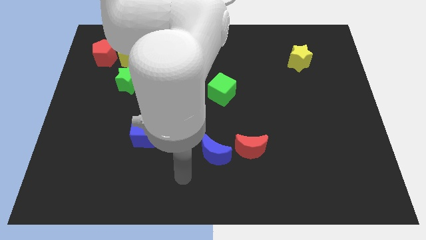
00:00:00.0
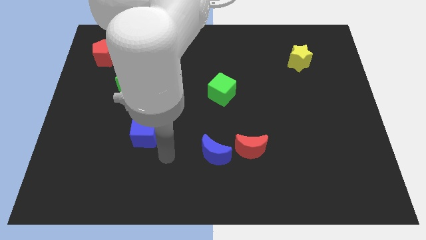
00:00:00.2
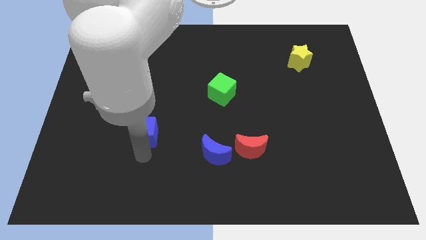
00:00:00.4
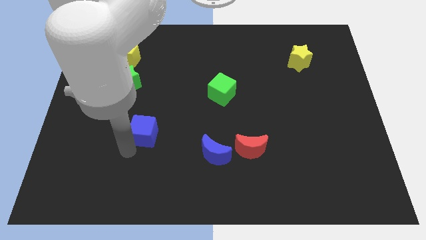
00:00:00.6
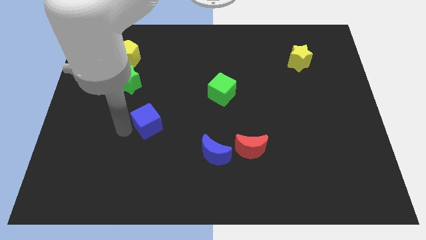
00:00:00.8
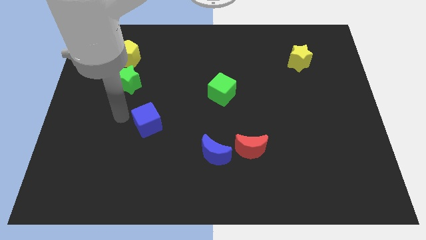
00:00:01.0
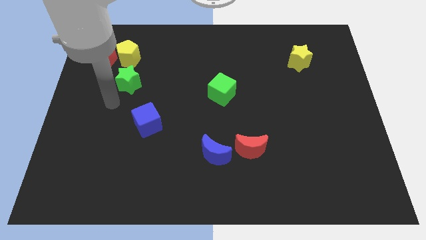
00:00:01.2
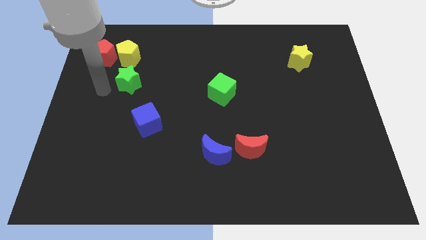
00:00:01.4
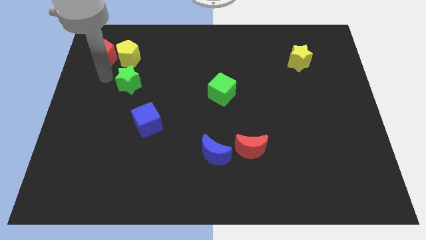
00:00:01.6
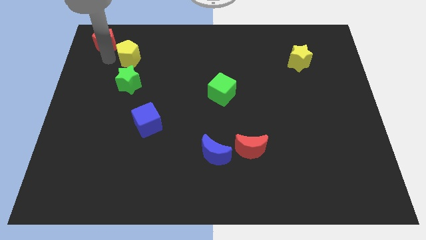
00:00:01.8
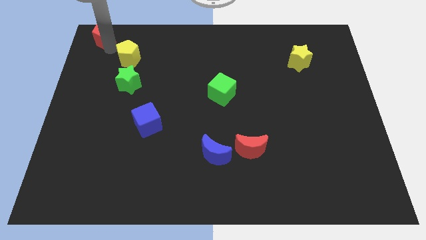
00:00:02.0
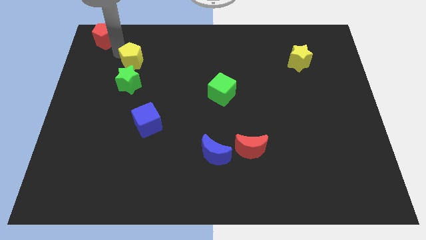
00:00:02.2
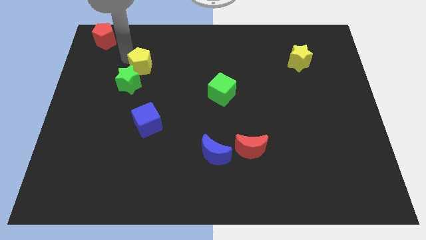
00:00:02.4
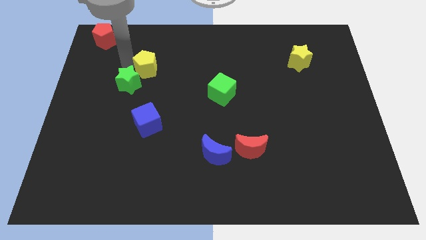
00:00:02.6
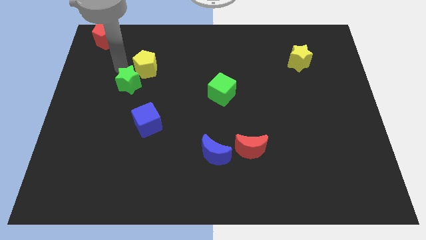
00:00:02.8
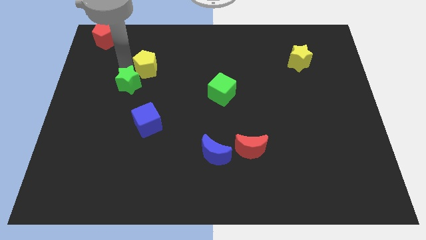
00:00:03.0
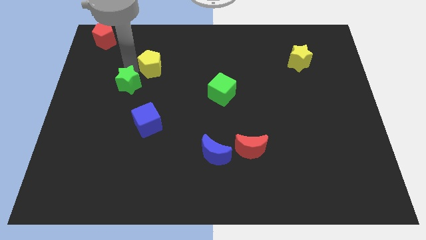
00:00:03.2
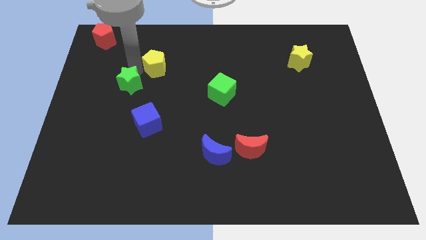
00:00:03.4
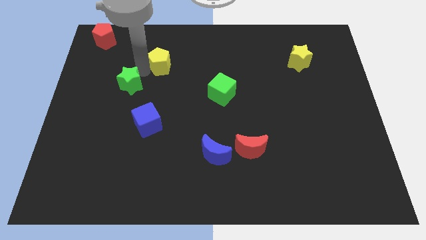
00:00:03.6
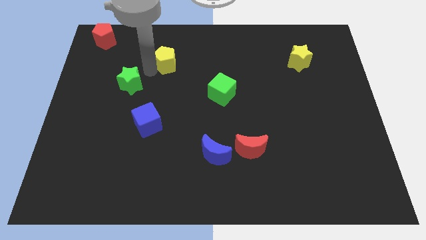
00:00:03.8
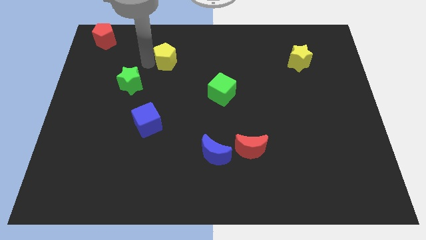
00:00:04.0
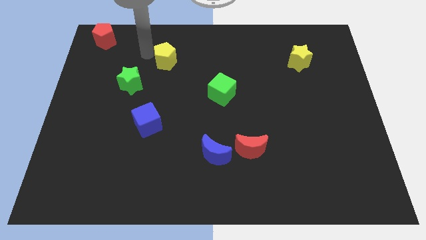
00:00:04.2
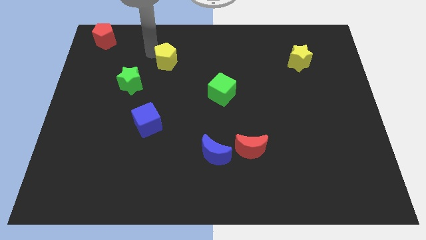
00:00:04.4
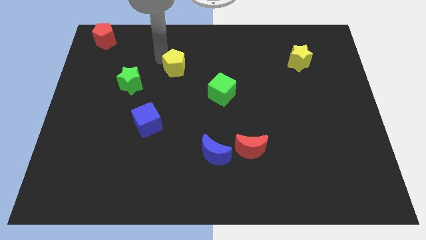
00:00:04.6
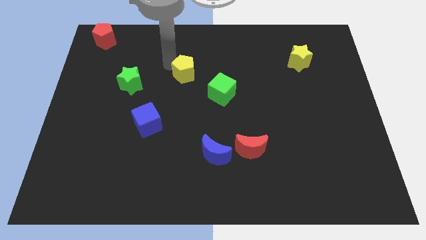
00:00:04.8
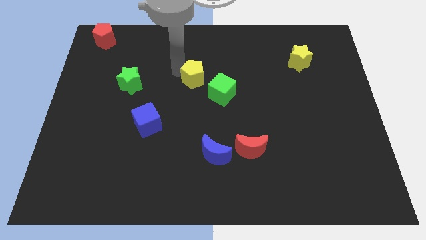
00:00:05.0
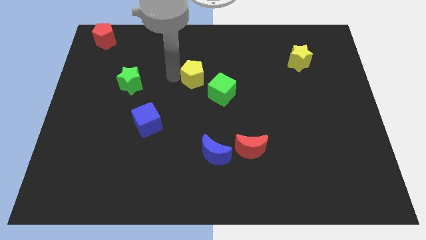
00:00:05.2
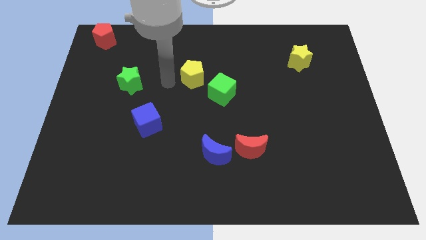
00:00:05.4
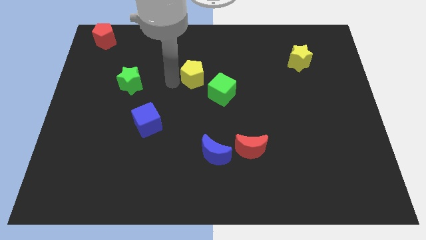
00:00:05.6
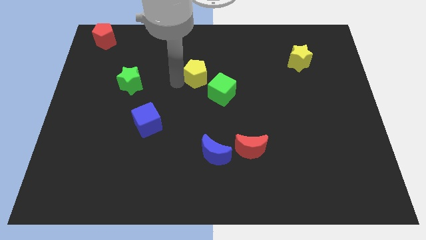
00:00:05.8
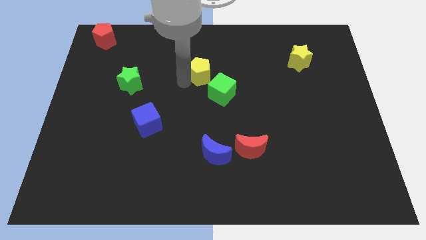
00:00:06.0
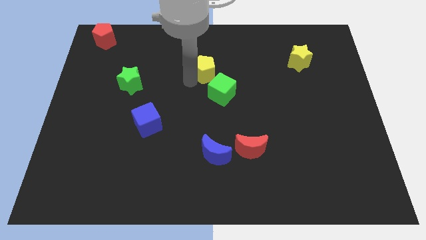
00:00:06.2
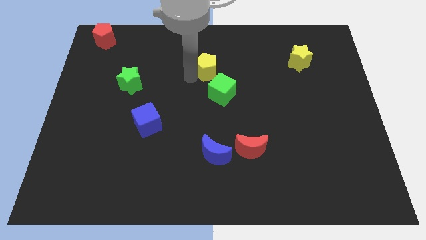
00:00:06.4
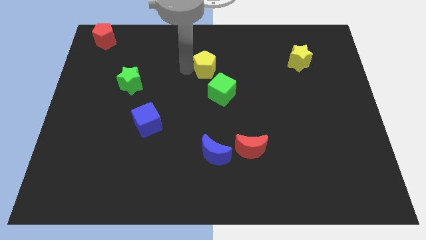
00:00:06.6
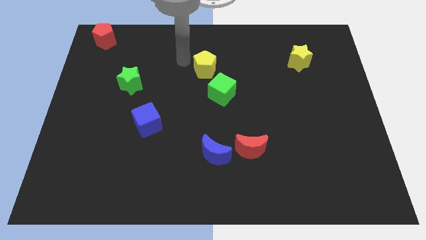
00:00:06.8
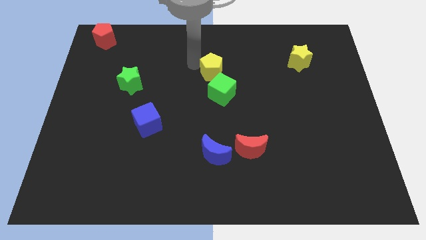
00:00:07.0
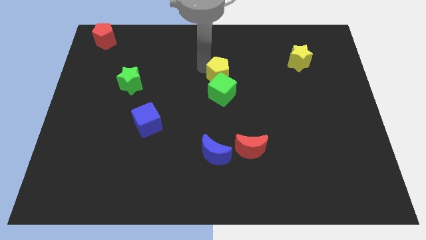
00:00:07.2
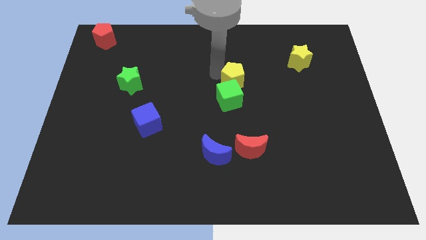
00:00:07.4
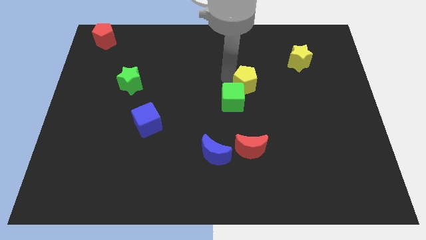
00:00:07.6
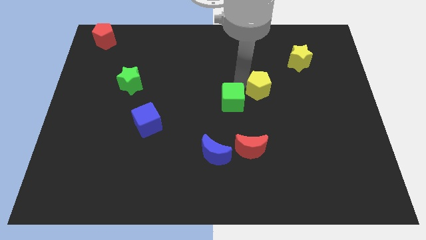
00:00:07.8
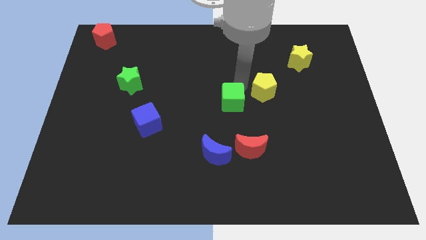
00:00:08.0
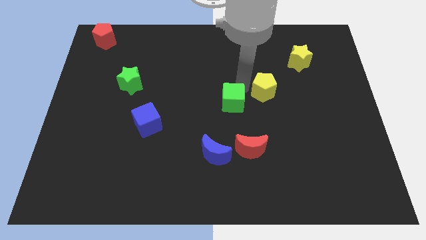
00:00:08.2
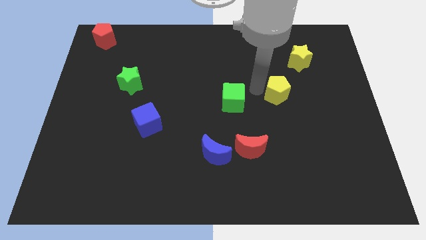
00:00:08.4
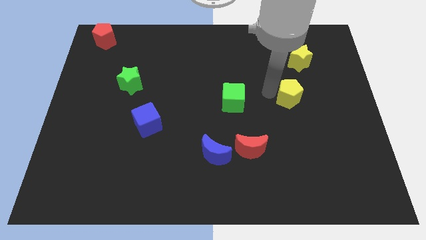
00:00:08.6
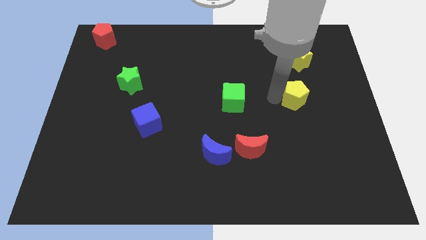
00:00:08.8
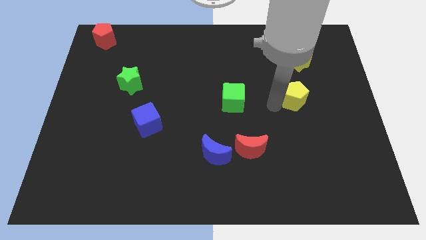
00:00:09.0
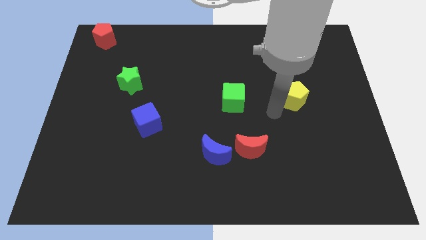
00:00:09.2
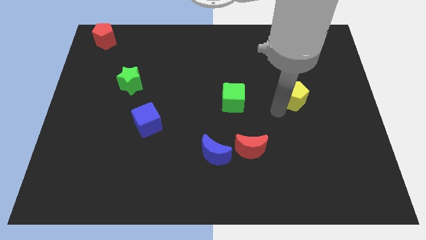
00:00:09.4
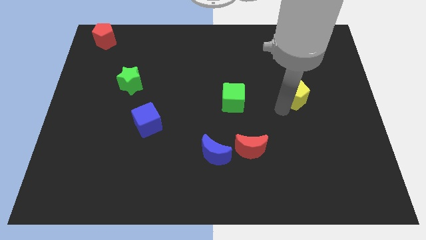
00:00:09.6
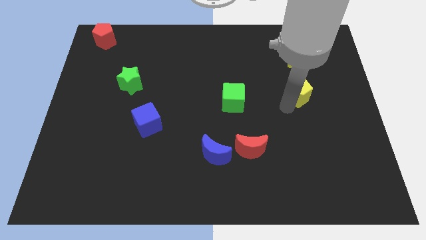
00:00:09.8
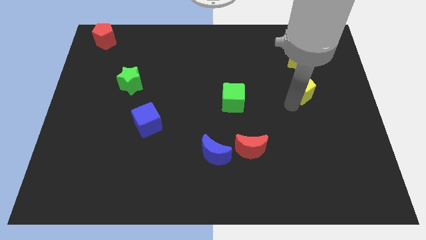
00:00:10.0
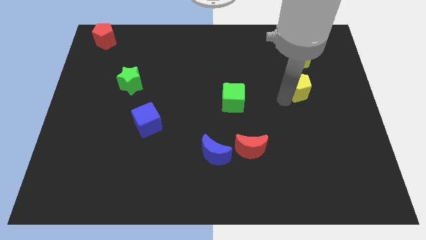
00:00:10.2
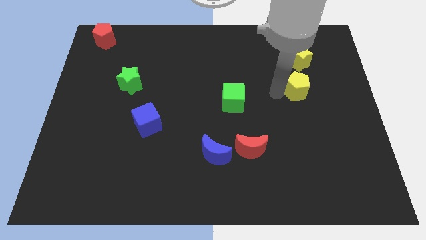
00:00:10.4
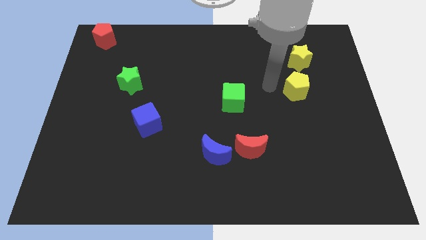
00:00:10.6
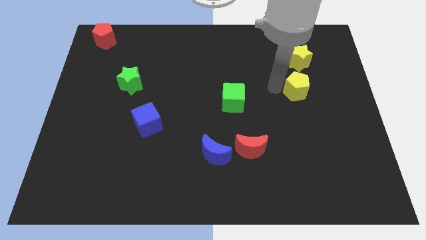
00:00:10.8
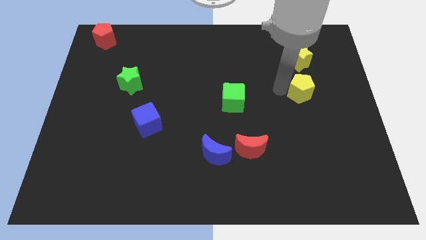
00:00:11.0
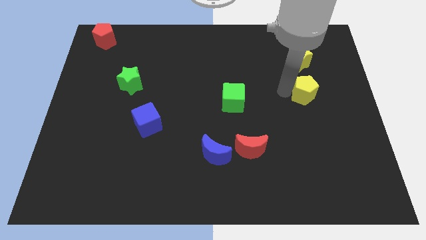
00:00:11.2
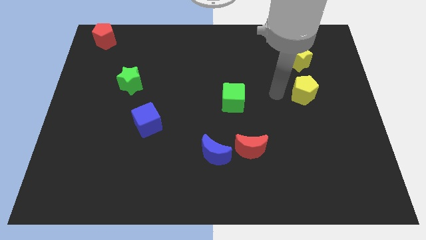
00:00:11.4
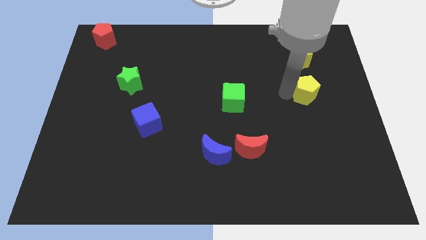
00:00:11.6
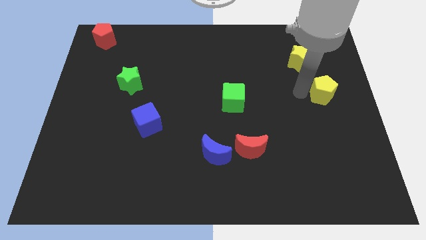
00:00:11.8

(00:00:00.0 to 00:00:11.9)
put the yellow pentagon to the right side of the board
